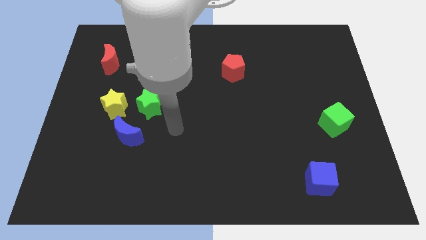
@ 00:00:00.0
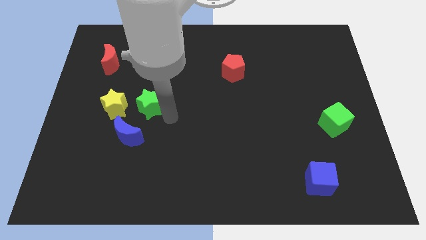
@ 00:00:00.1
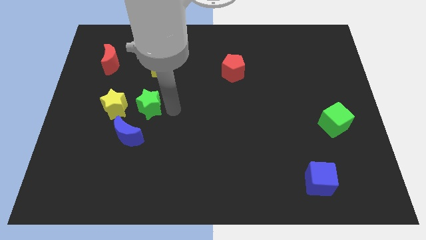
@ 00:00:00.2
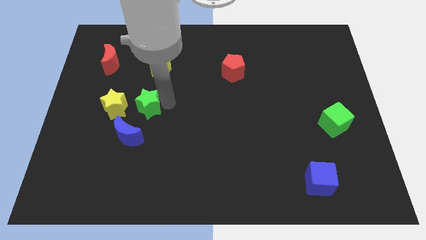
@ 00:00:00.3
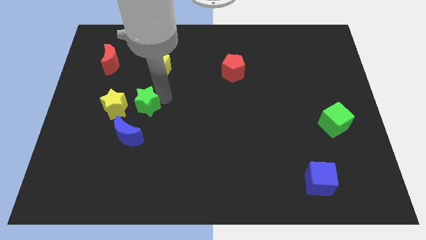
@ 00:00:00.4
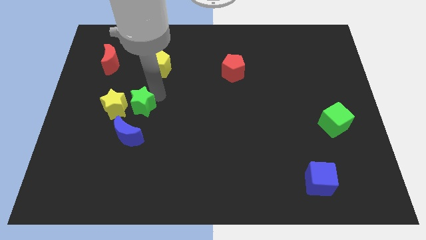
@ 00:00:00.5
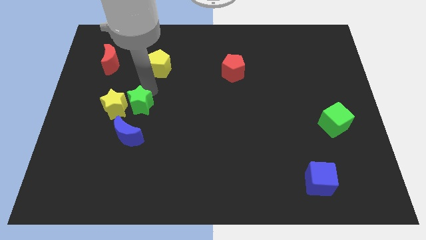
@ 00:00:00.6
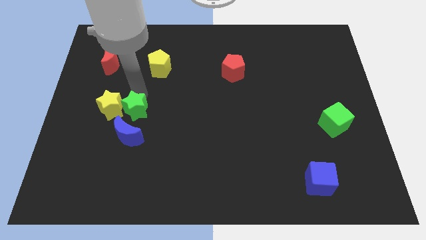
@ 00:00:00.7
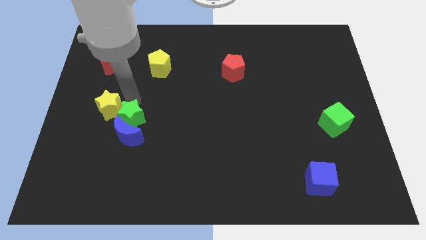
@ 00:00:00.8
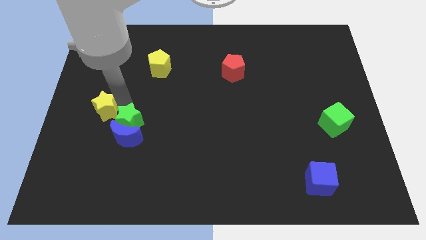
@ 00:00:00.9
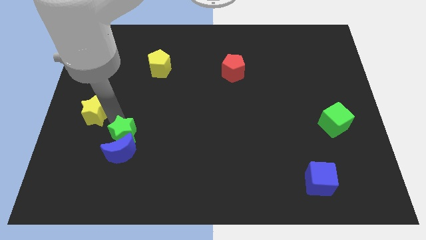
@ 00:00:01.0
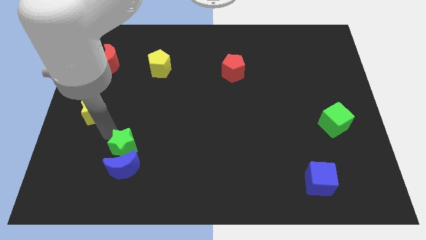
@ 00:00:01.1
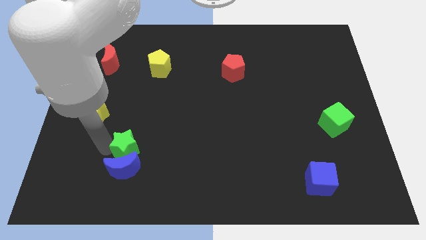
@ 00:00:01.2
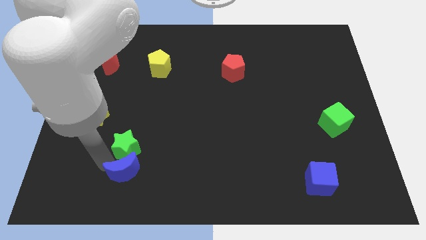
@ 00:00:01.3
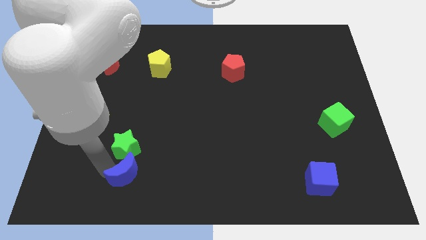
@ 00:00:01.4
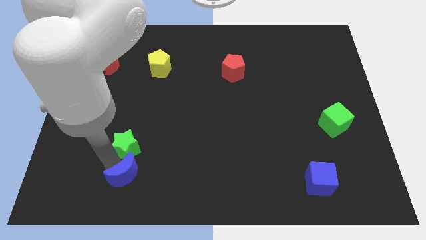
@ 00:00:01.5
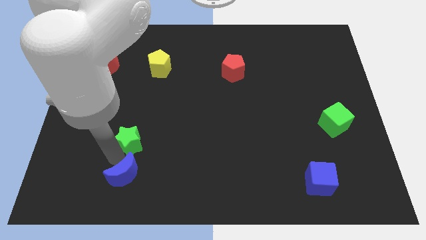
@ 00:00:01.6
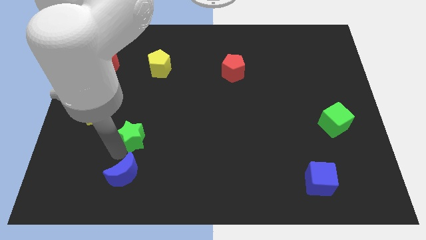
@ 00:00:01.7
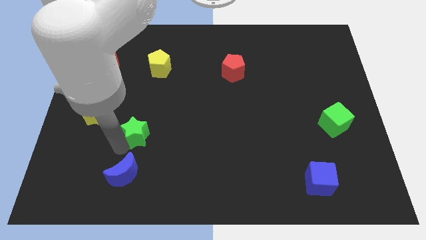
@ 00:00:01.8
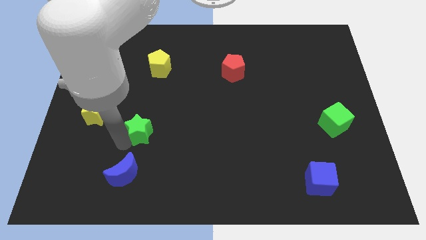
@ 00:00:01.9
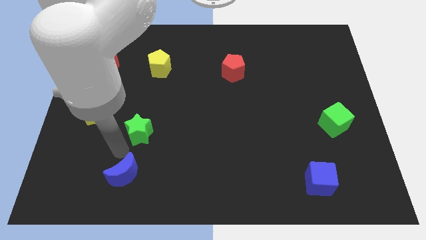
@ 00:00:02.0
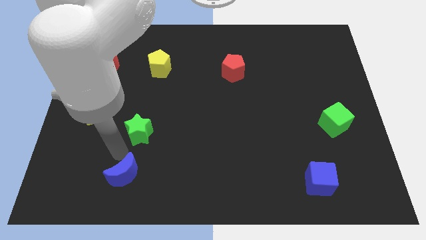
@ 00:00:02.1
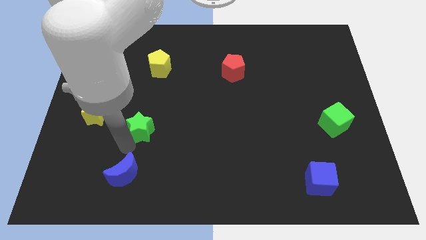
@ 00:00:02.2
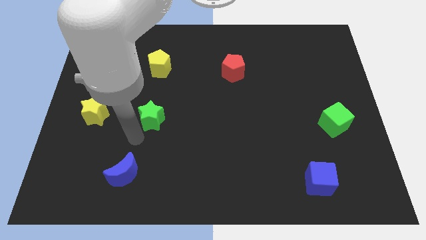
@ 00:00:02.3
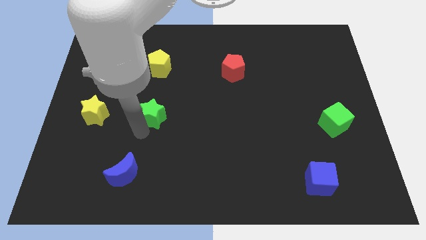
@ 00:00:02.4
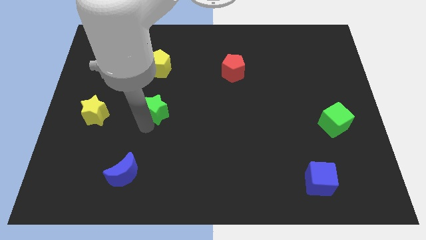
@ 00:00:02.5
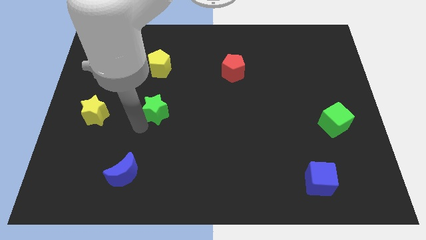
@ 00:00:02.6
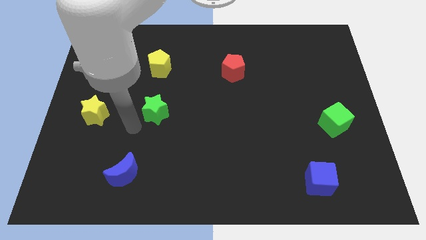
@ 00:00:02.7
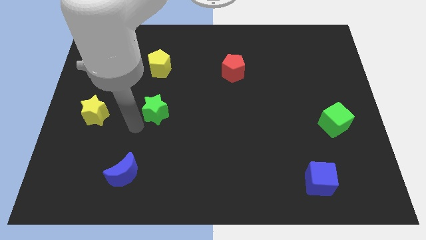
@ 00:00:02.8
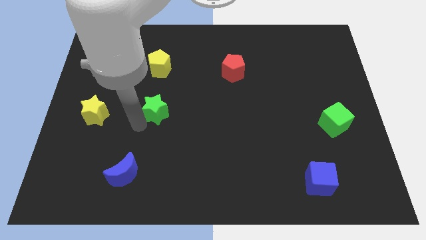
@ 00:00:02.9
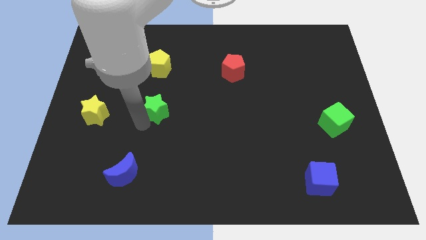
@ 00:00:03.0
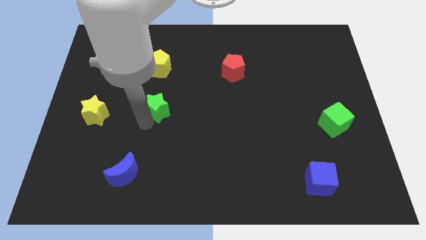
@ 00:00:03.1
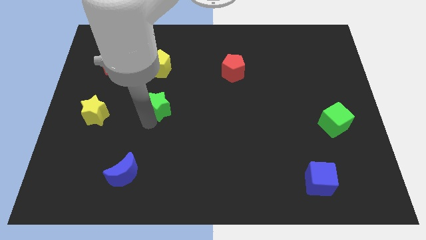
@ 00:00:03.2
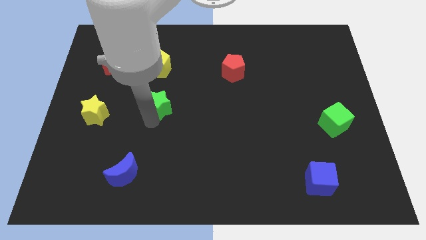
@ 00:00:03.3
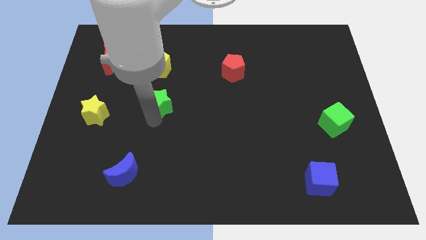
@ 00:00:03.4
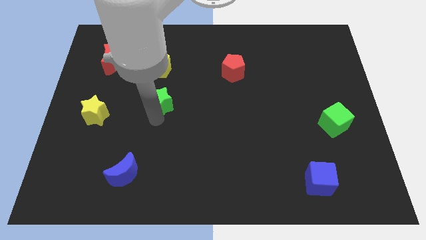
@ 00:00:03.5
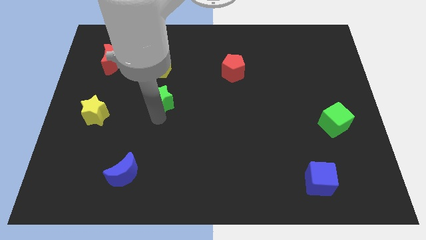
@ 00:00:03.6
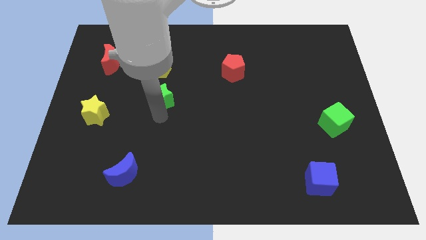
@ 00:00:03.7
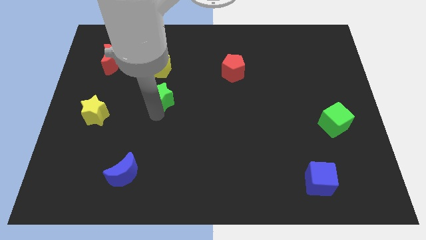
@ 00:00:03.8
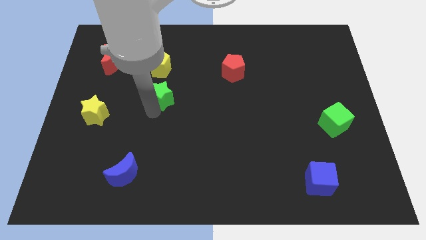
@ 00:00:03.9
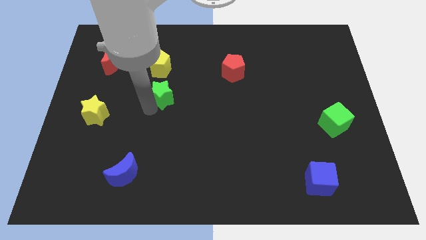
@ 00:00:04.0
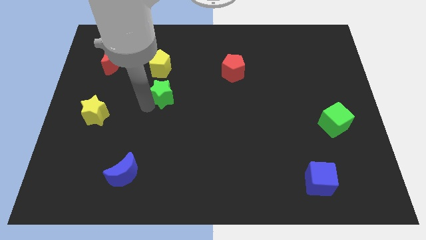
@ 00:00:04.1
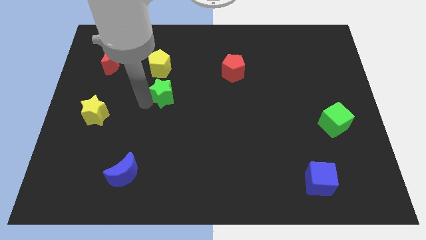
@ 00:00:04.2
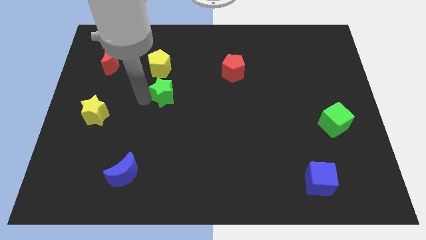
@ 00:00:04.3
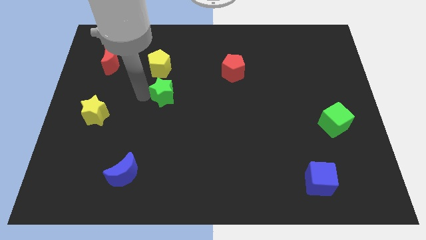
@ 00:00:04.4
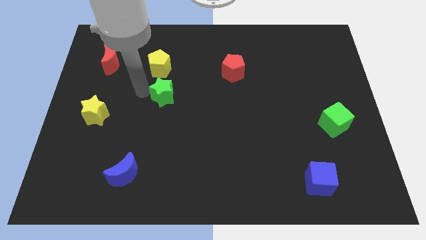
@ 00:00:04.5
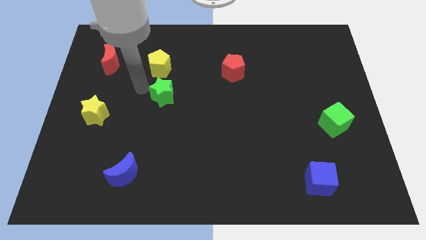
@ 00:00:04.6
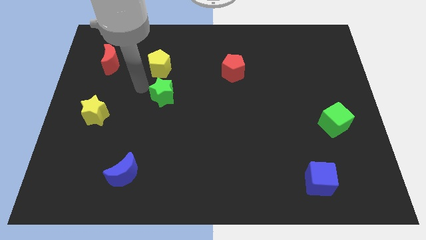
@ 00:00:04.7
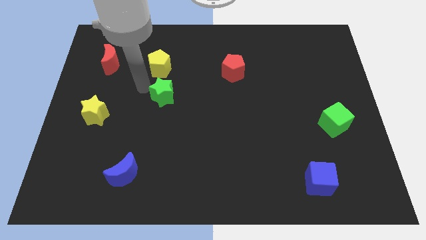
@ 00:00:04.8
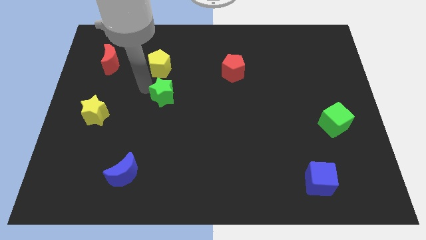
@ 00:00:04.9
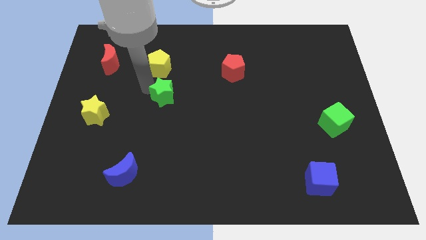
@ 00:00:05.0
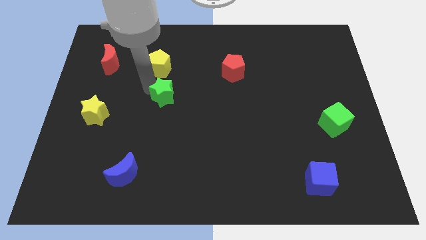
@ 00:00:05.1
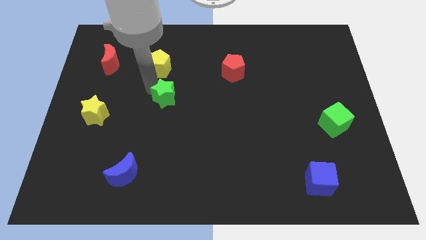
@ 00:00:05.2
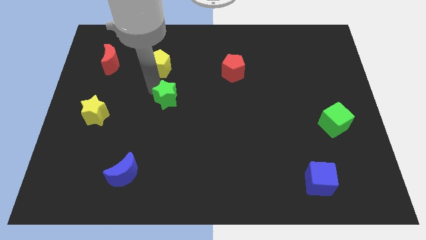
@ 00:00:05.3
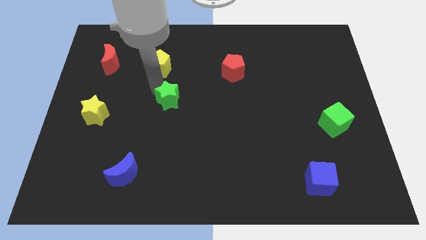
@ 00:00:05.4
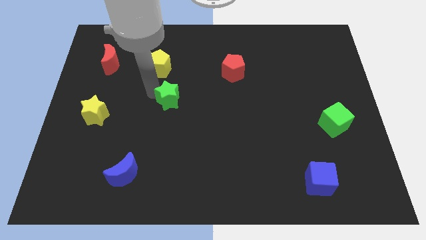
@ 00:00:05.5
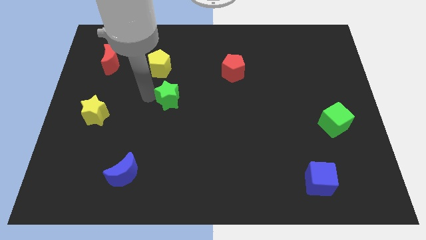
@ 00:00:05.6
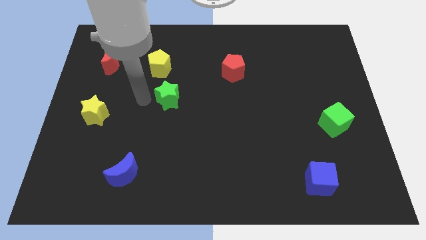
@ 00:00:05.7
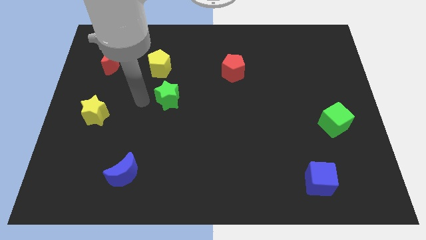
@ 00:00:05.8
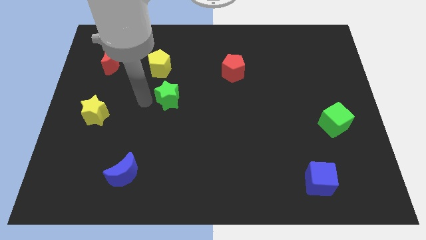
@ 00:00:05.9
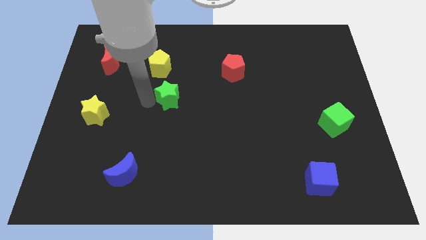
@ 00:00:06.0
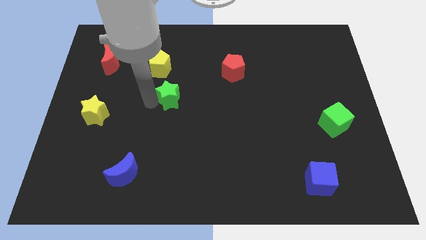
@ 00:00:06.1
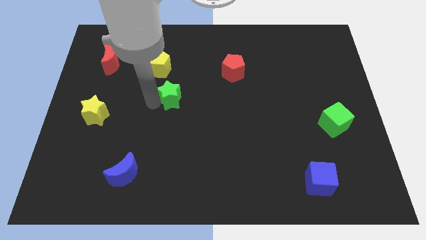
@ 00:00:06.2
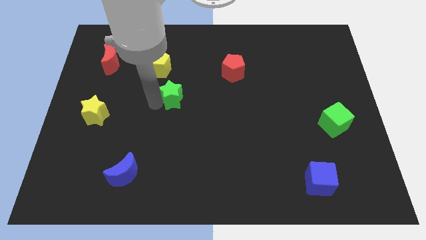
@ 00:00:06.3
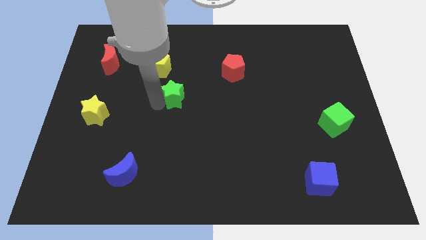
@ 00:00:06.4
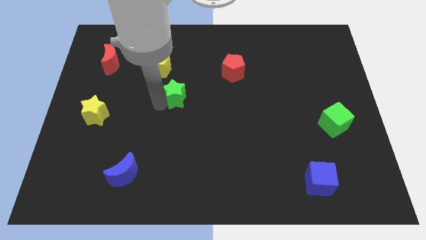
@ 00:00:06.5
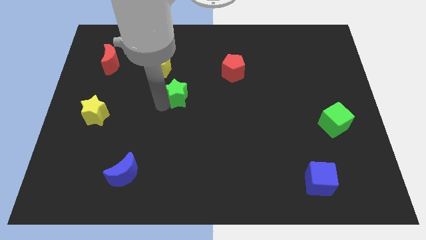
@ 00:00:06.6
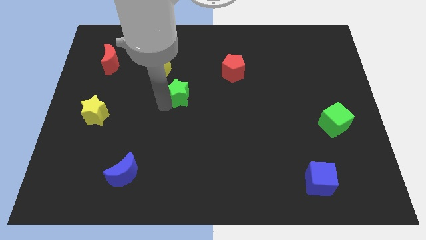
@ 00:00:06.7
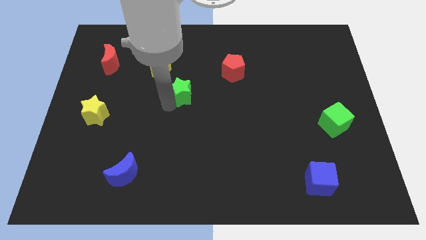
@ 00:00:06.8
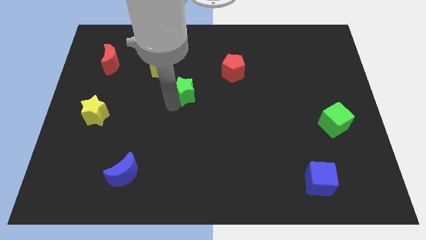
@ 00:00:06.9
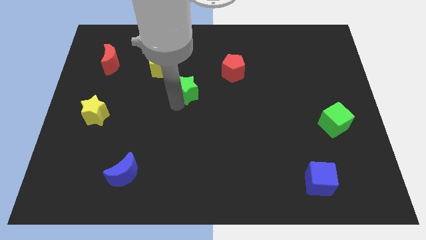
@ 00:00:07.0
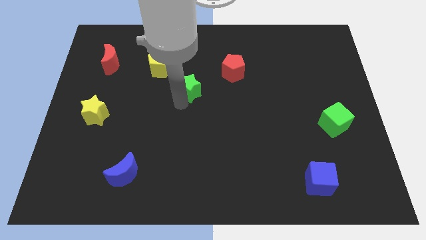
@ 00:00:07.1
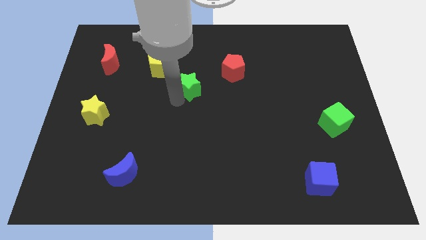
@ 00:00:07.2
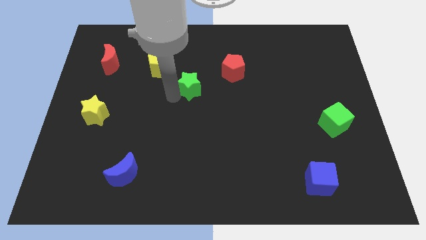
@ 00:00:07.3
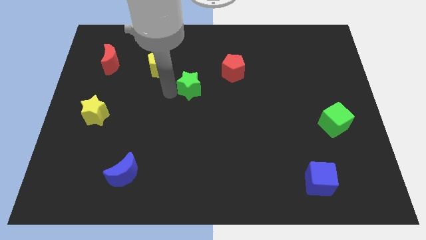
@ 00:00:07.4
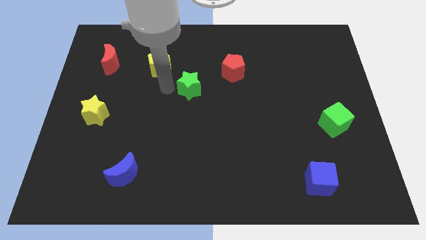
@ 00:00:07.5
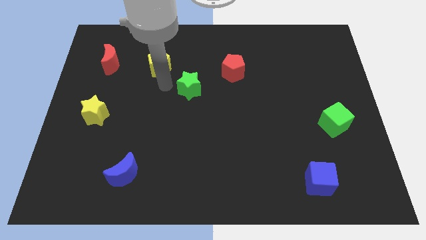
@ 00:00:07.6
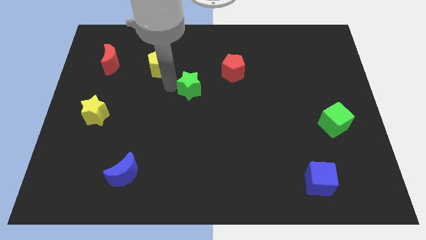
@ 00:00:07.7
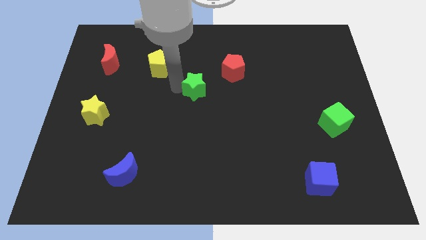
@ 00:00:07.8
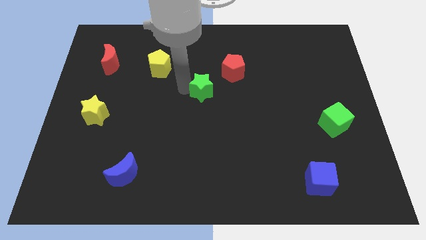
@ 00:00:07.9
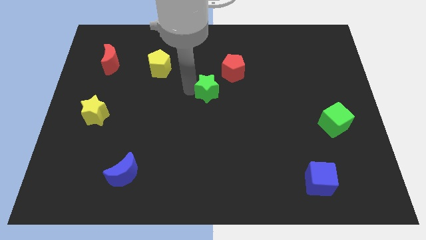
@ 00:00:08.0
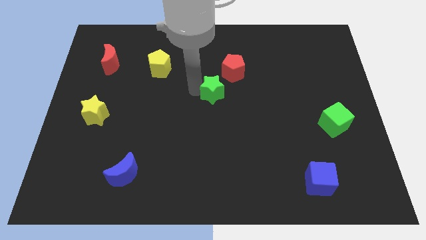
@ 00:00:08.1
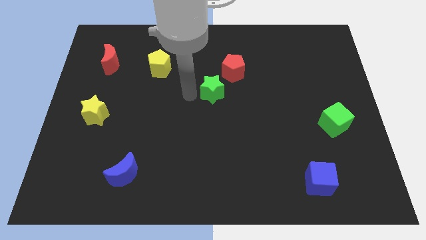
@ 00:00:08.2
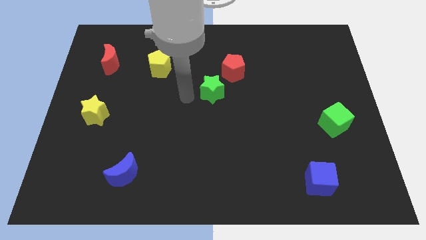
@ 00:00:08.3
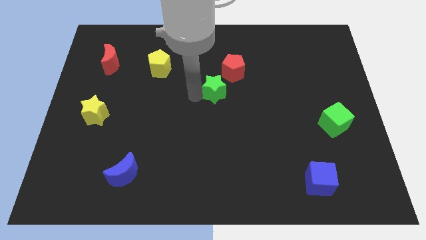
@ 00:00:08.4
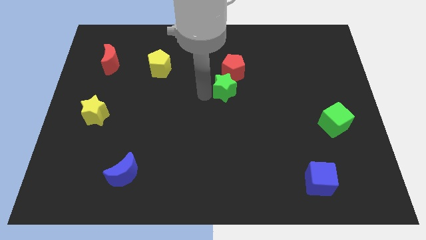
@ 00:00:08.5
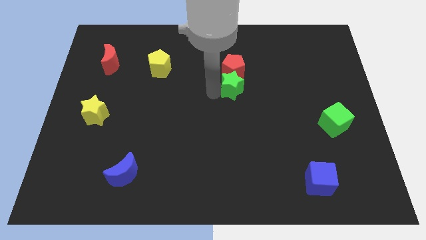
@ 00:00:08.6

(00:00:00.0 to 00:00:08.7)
move the green star to the bottom right side of the red pentagon
